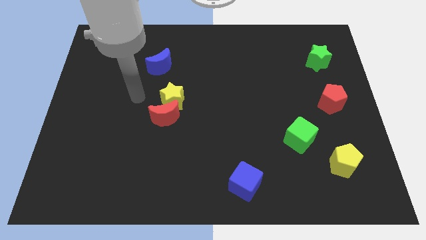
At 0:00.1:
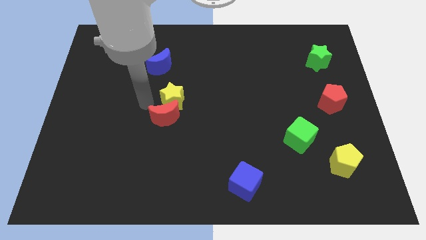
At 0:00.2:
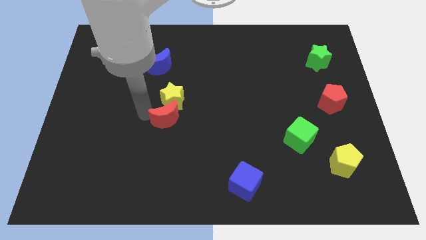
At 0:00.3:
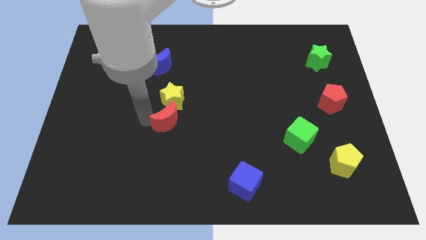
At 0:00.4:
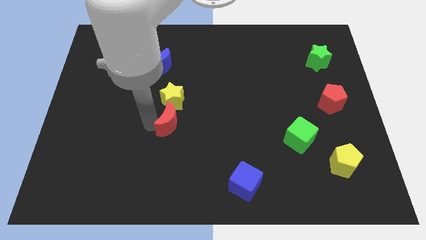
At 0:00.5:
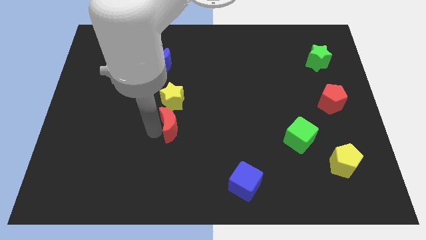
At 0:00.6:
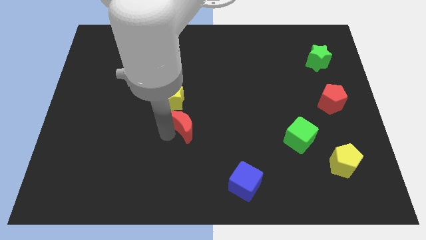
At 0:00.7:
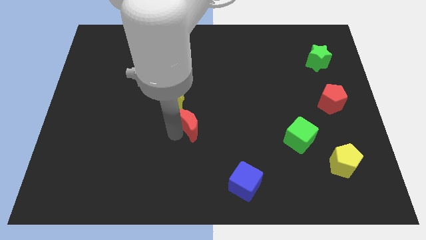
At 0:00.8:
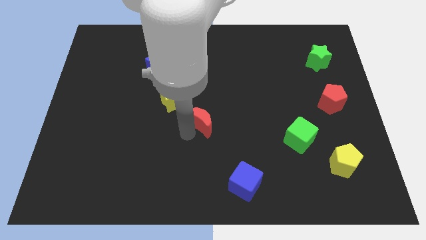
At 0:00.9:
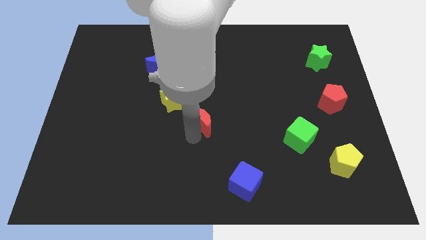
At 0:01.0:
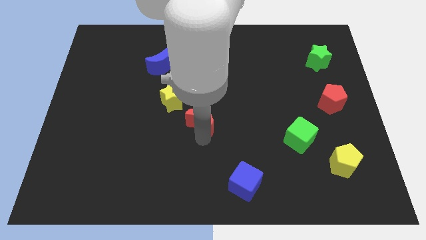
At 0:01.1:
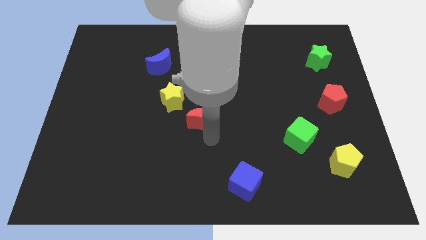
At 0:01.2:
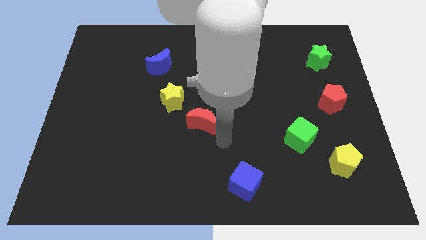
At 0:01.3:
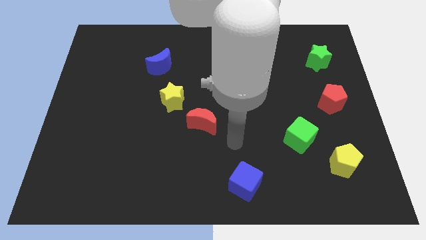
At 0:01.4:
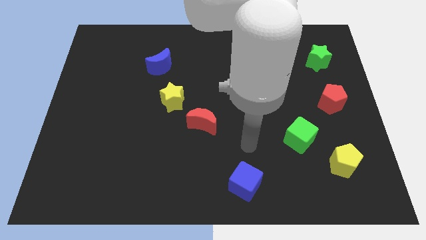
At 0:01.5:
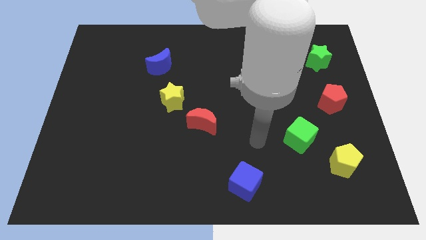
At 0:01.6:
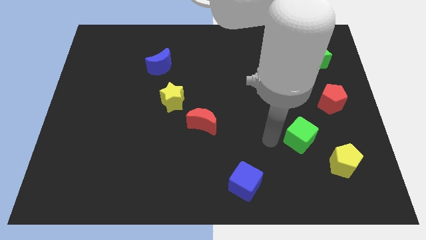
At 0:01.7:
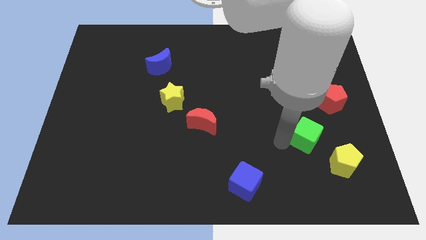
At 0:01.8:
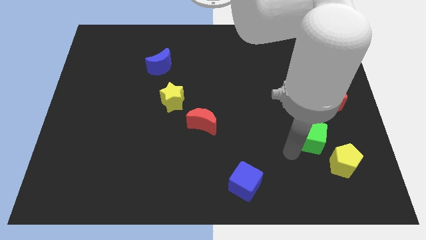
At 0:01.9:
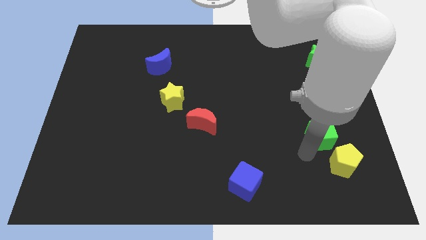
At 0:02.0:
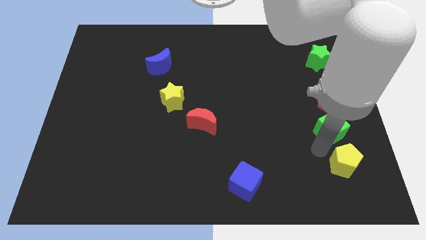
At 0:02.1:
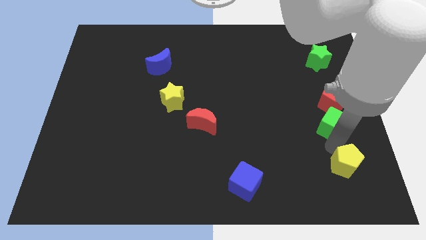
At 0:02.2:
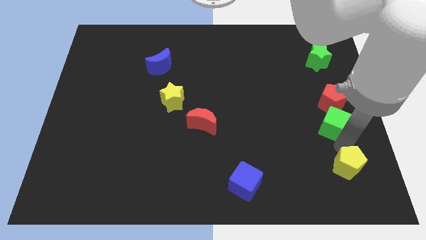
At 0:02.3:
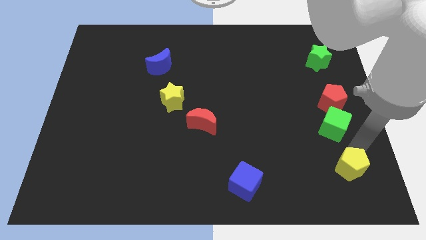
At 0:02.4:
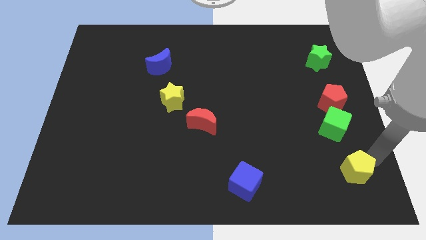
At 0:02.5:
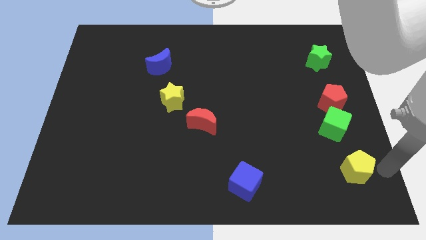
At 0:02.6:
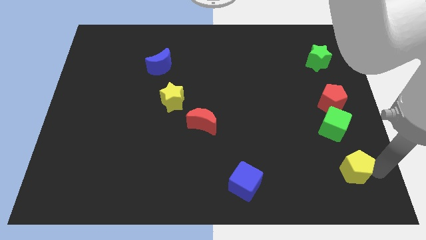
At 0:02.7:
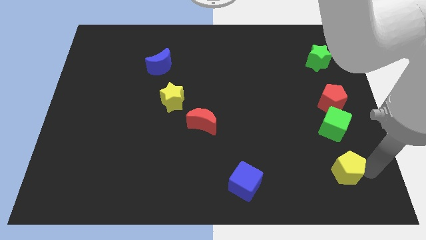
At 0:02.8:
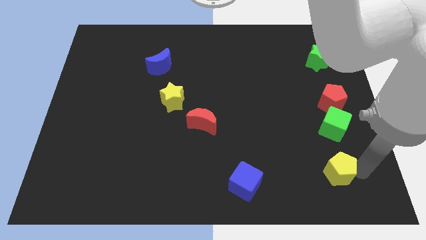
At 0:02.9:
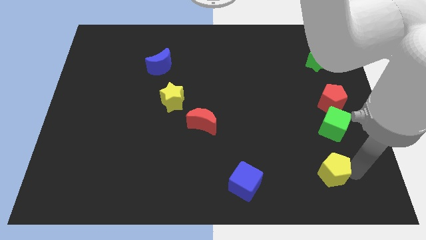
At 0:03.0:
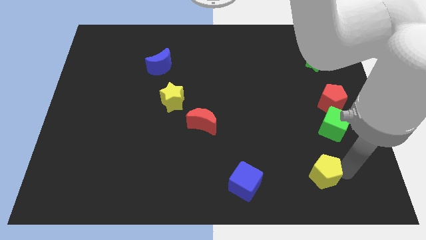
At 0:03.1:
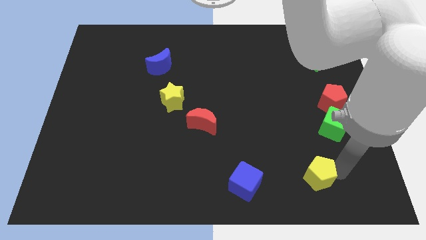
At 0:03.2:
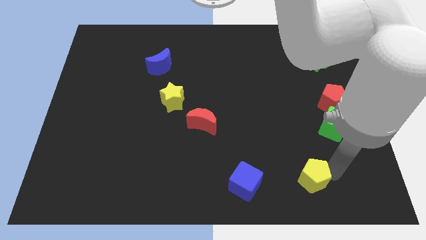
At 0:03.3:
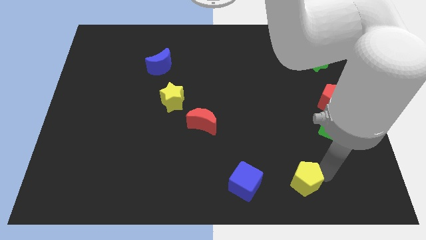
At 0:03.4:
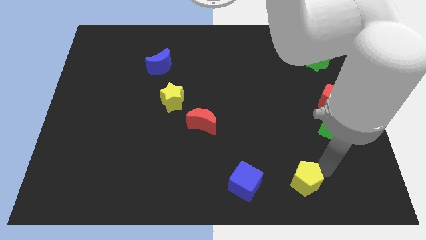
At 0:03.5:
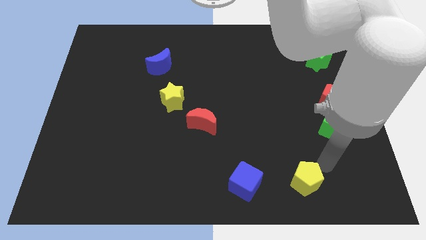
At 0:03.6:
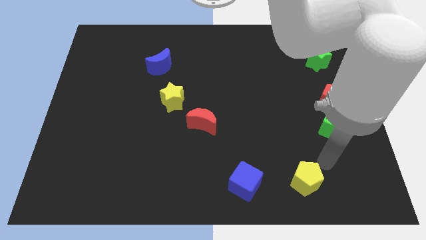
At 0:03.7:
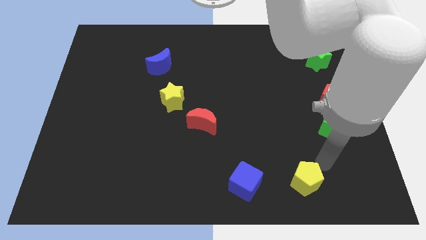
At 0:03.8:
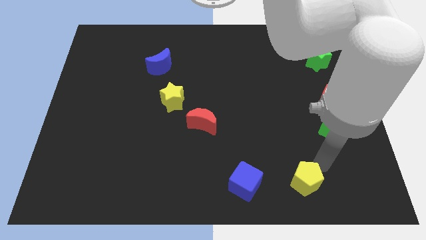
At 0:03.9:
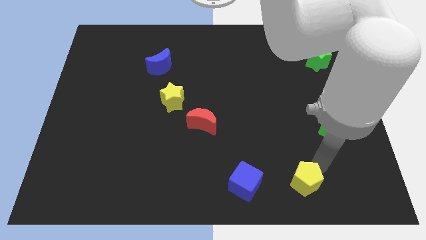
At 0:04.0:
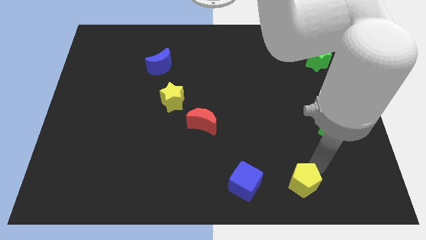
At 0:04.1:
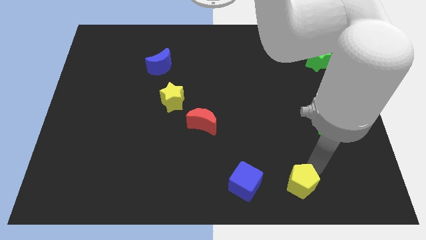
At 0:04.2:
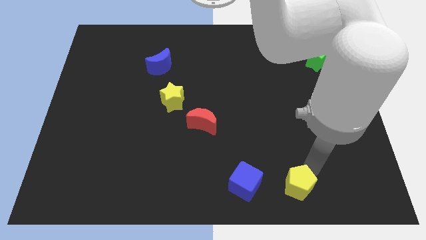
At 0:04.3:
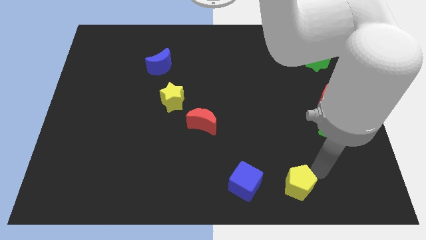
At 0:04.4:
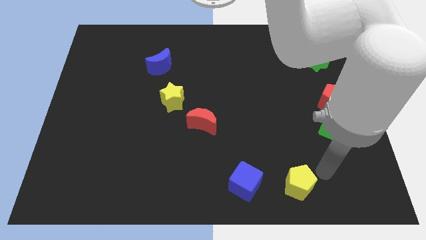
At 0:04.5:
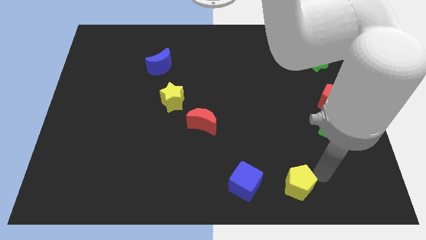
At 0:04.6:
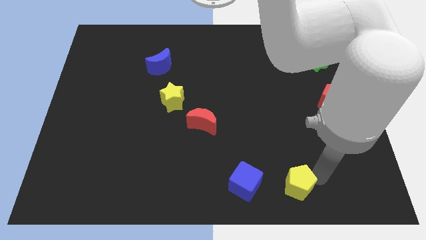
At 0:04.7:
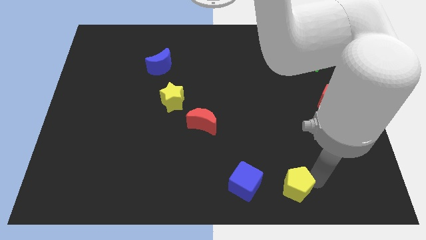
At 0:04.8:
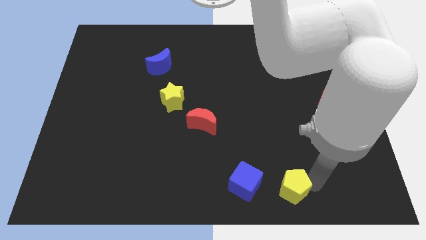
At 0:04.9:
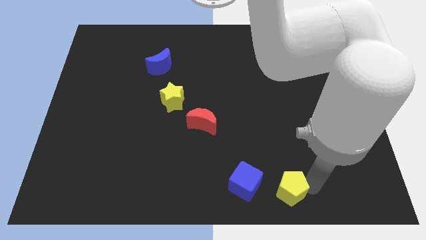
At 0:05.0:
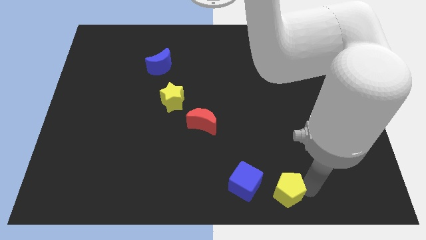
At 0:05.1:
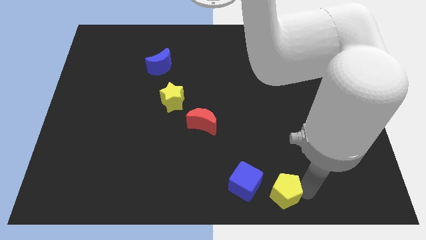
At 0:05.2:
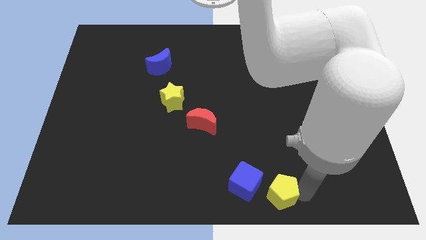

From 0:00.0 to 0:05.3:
slide the yellow pentagon to the bottom

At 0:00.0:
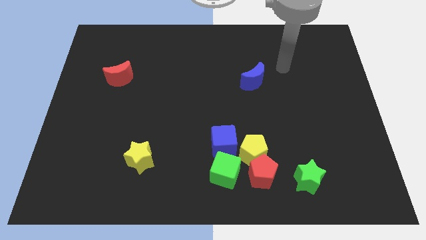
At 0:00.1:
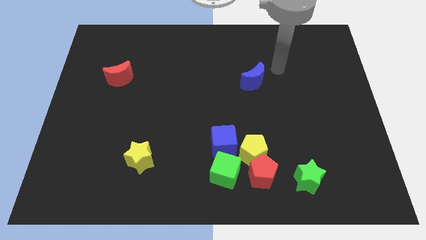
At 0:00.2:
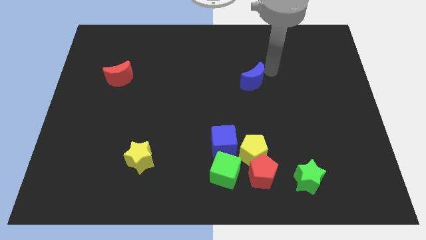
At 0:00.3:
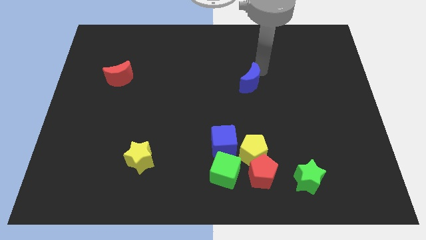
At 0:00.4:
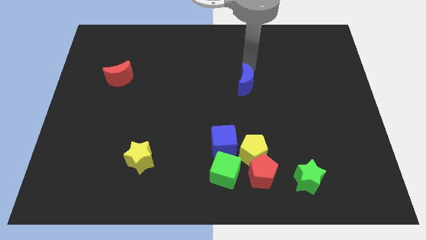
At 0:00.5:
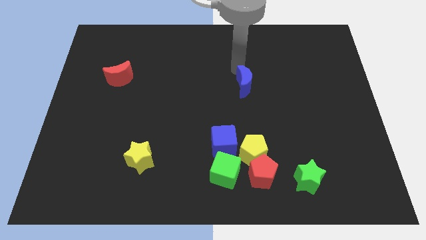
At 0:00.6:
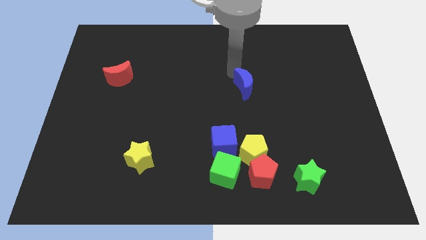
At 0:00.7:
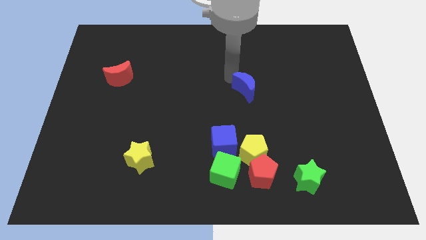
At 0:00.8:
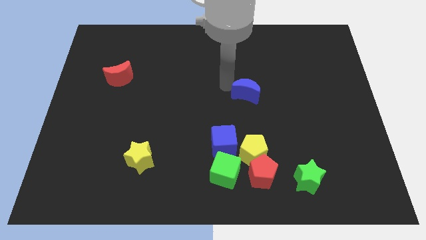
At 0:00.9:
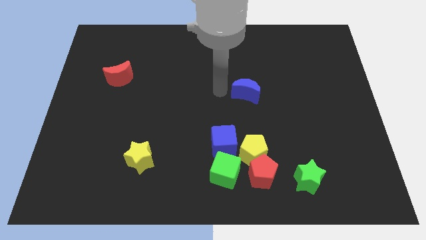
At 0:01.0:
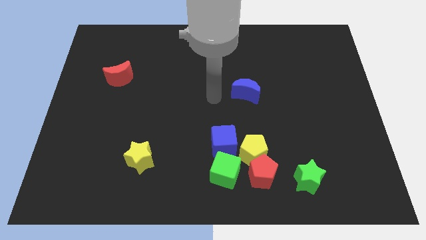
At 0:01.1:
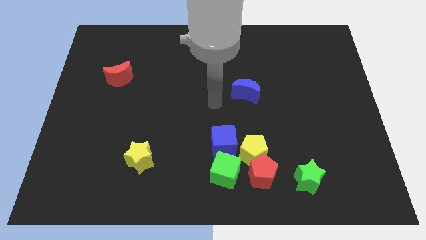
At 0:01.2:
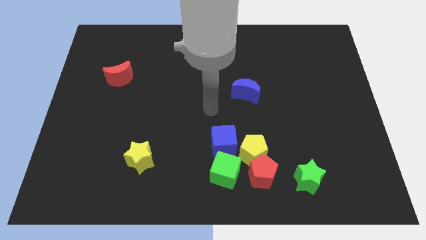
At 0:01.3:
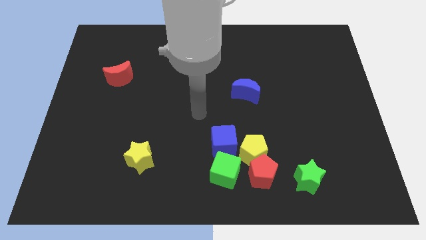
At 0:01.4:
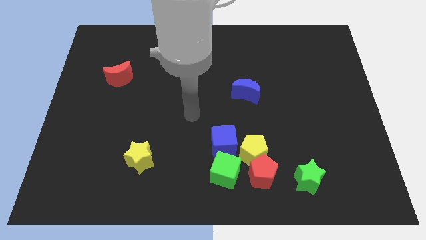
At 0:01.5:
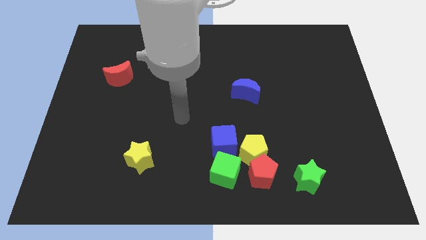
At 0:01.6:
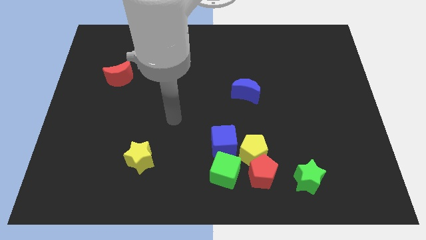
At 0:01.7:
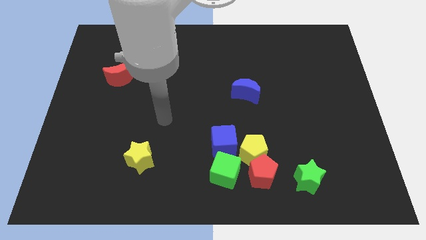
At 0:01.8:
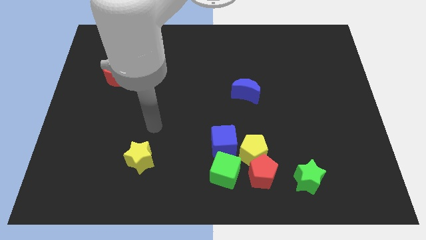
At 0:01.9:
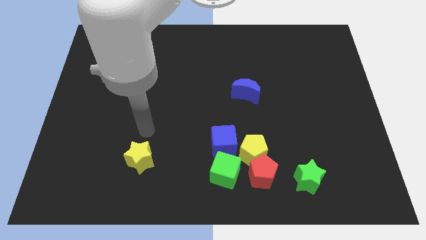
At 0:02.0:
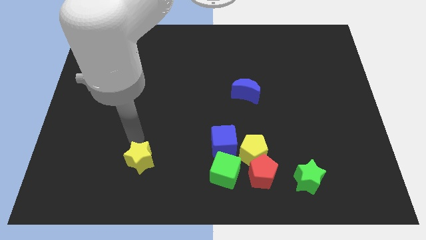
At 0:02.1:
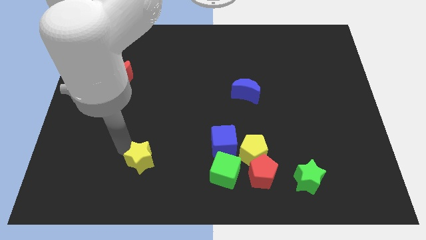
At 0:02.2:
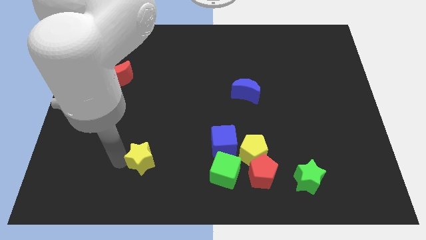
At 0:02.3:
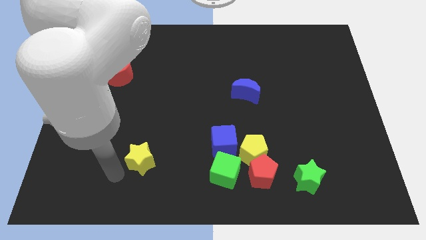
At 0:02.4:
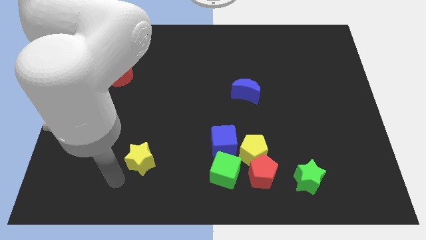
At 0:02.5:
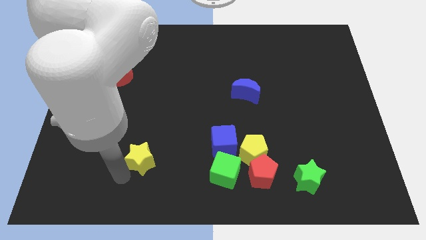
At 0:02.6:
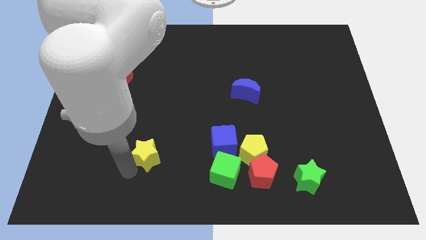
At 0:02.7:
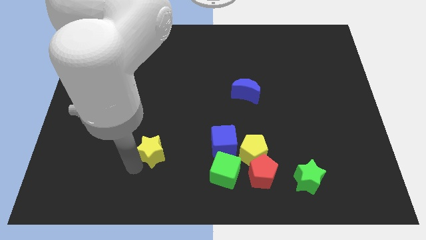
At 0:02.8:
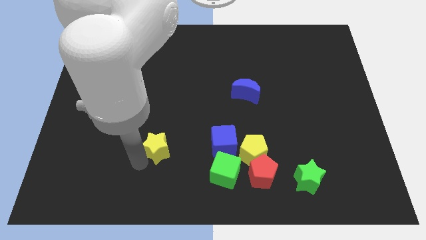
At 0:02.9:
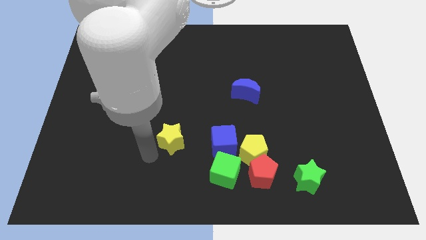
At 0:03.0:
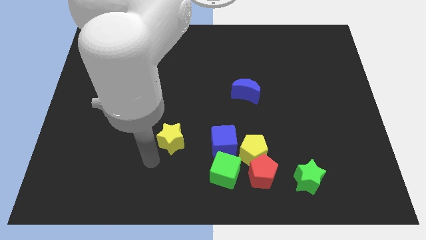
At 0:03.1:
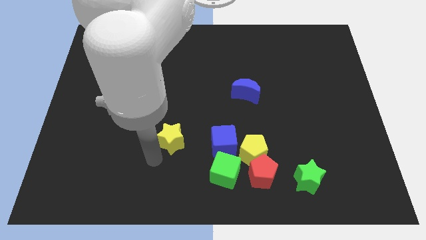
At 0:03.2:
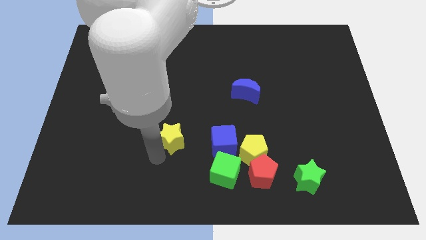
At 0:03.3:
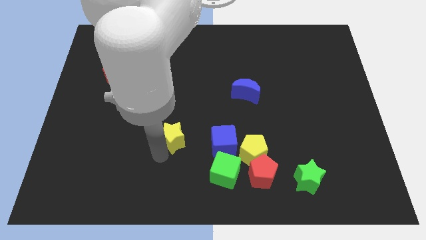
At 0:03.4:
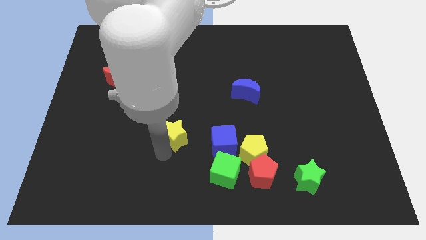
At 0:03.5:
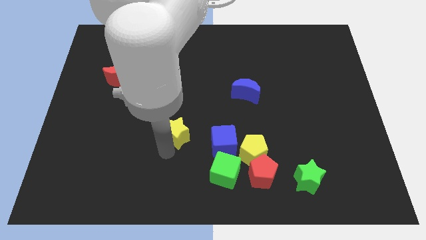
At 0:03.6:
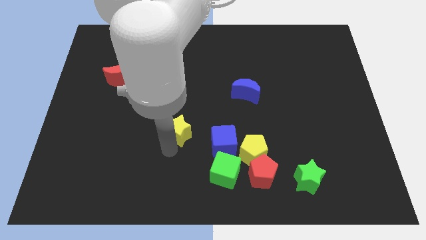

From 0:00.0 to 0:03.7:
slide the yellow star to the center
